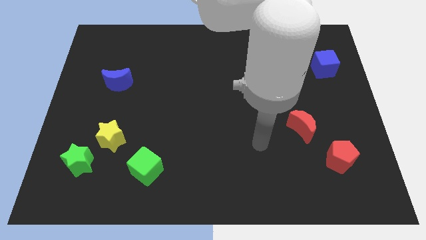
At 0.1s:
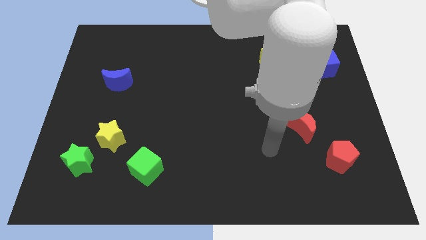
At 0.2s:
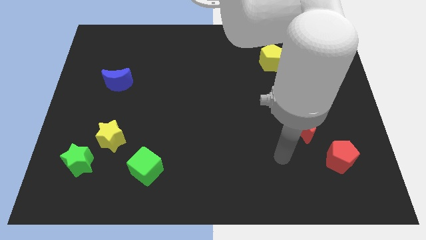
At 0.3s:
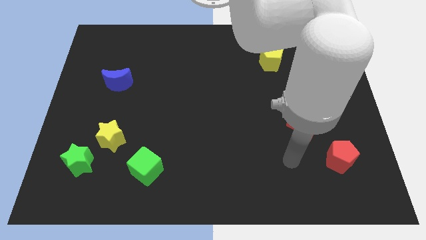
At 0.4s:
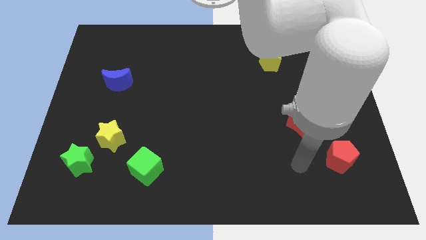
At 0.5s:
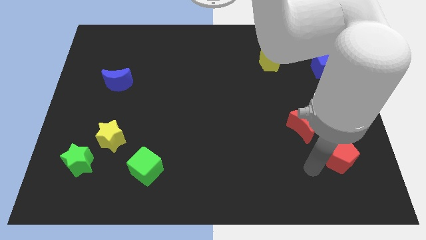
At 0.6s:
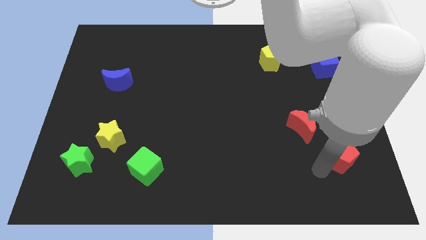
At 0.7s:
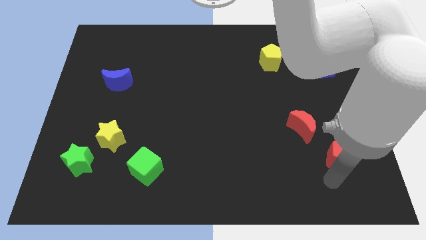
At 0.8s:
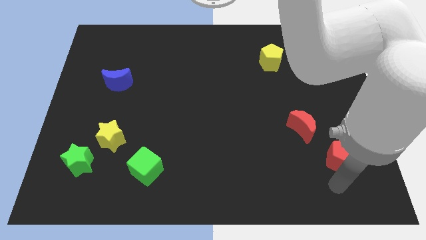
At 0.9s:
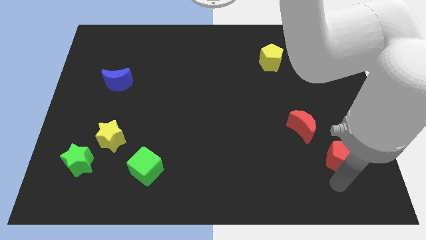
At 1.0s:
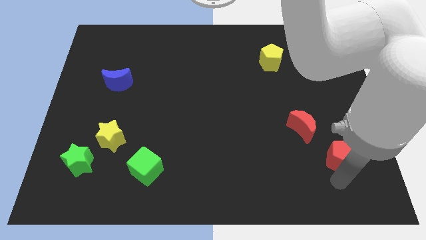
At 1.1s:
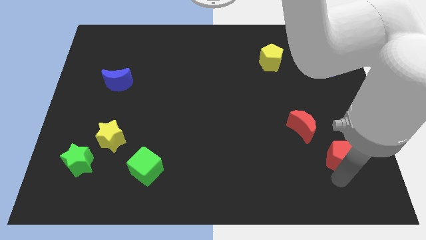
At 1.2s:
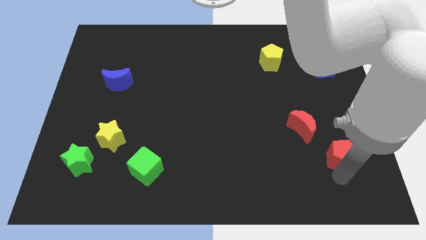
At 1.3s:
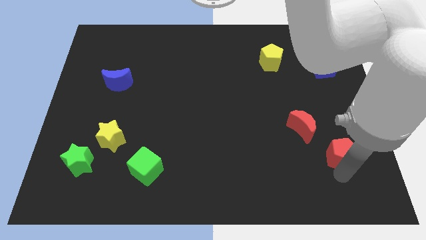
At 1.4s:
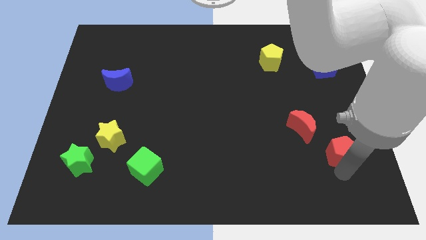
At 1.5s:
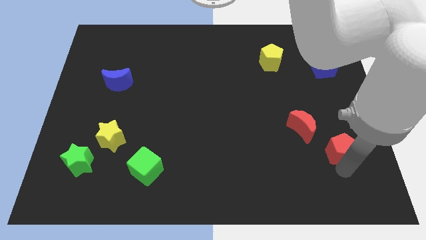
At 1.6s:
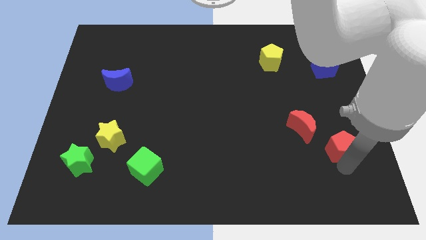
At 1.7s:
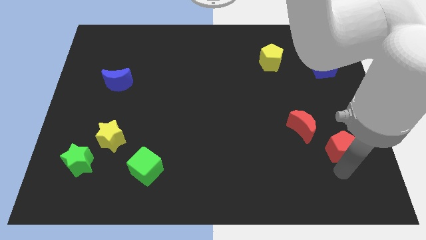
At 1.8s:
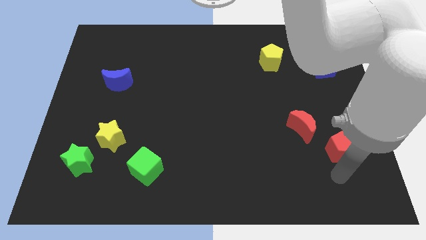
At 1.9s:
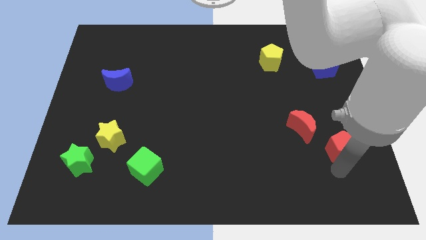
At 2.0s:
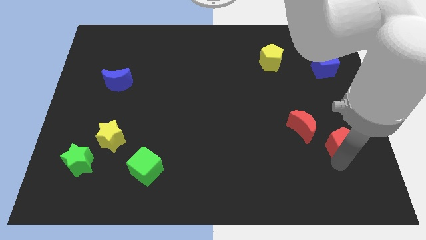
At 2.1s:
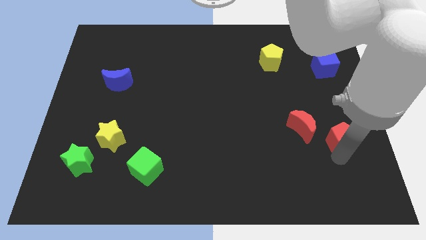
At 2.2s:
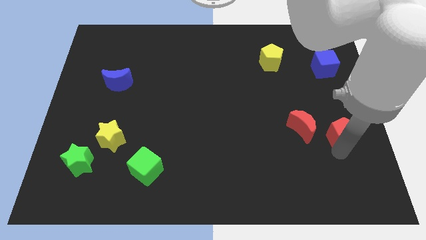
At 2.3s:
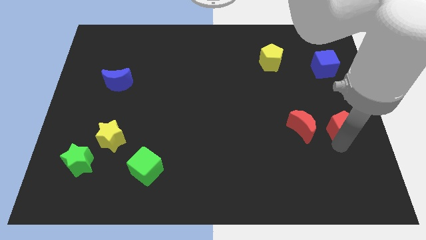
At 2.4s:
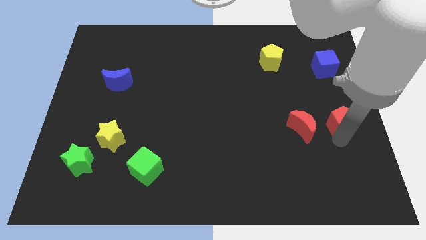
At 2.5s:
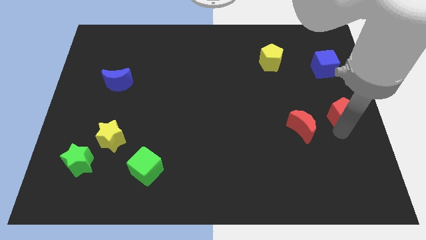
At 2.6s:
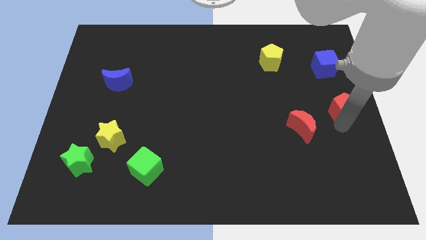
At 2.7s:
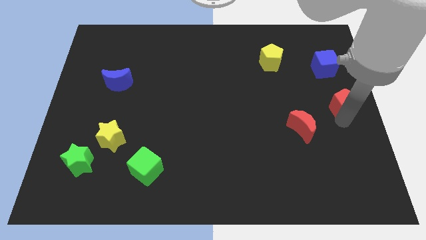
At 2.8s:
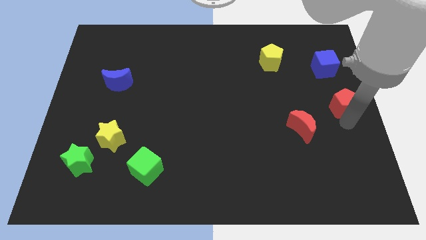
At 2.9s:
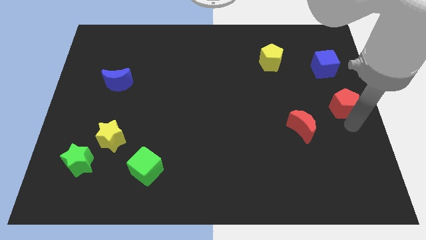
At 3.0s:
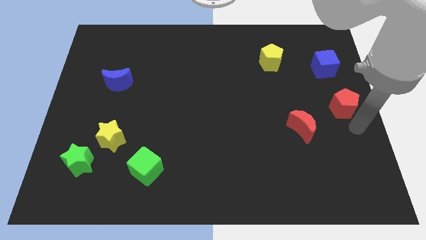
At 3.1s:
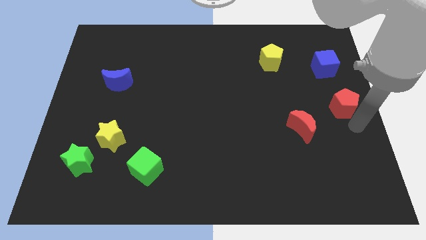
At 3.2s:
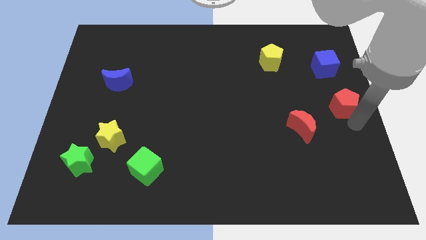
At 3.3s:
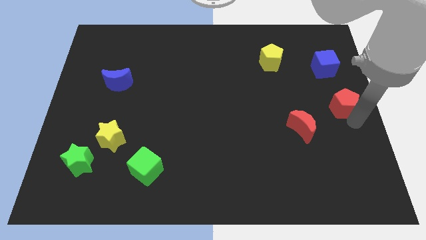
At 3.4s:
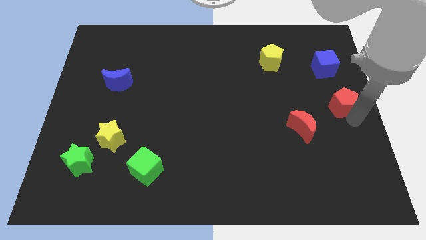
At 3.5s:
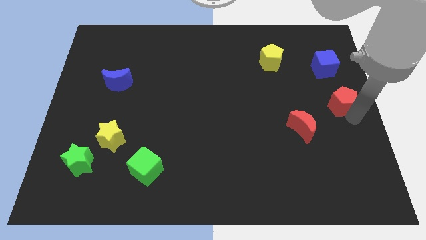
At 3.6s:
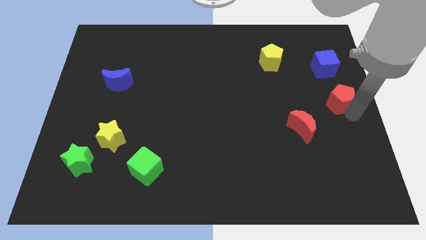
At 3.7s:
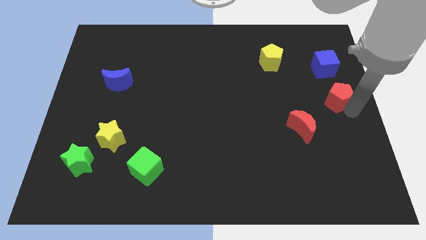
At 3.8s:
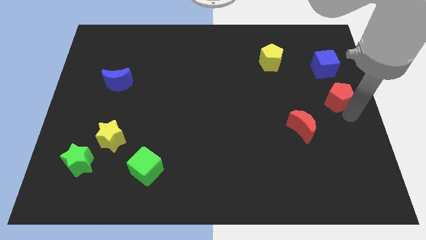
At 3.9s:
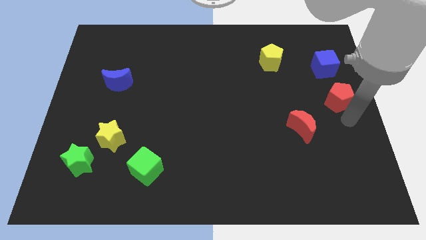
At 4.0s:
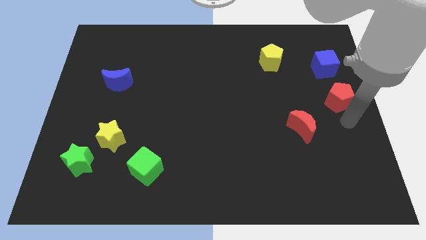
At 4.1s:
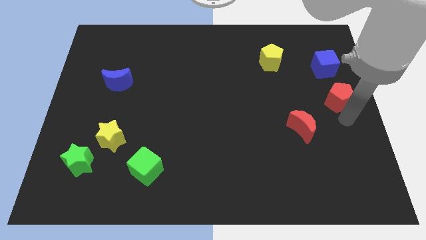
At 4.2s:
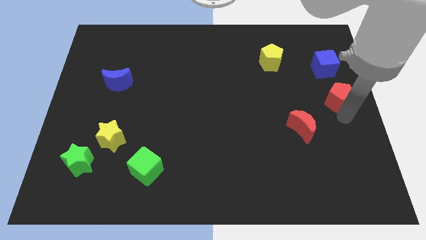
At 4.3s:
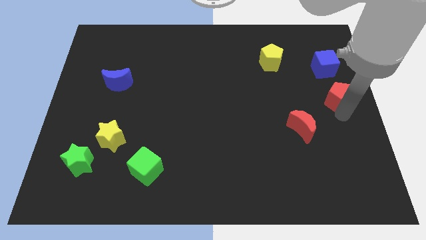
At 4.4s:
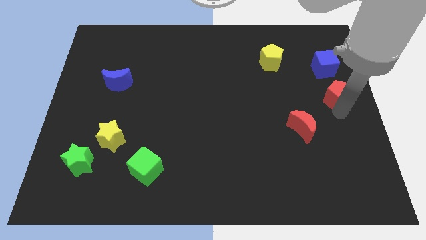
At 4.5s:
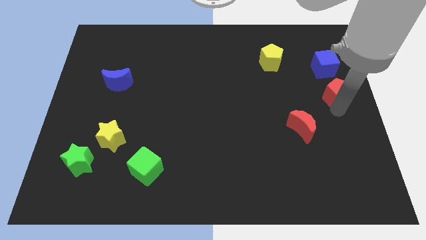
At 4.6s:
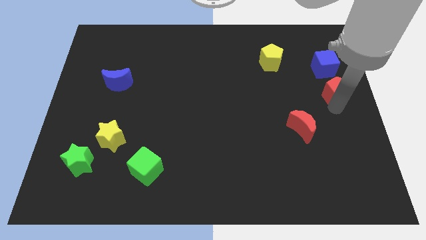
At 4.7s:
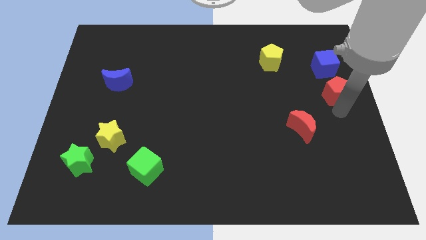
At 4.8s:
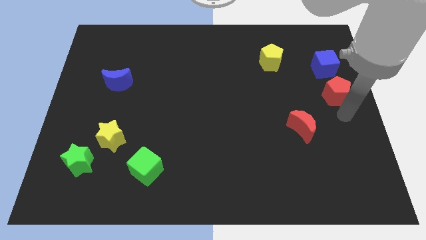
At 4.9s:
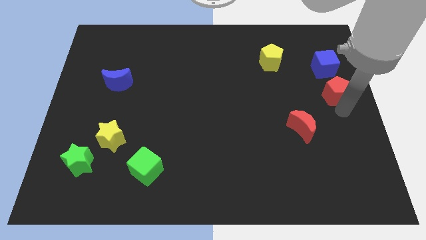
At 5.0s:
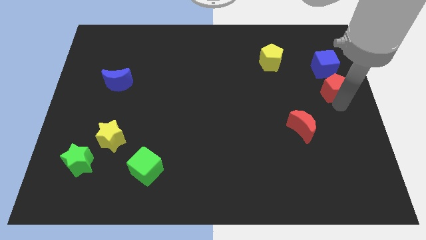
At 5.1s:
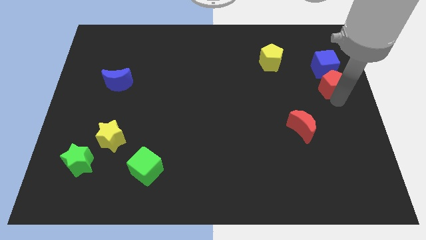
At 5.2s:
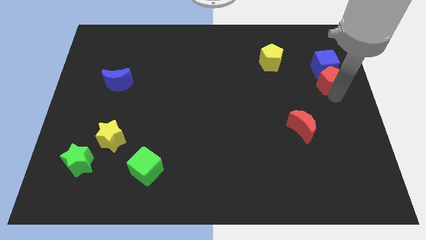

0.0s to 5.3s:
put the red pentagon close to the blue cube

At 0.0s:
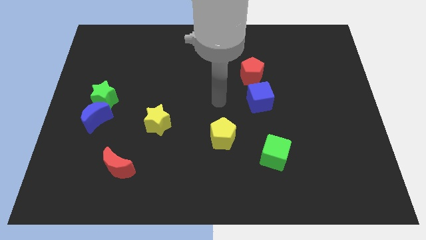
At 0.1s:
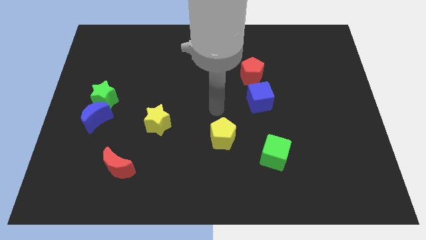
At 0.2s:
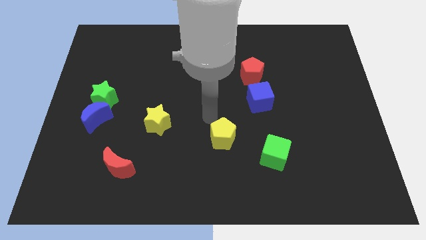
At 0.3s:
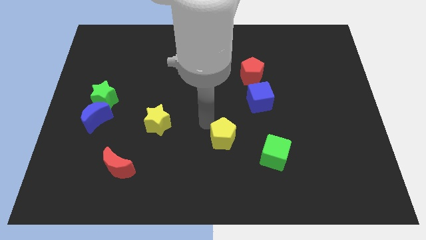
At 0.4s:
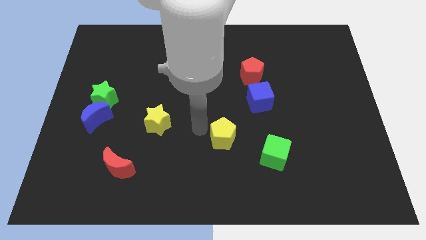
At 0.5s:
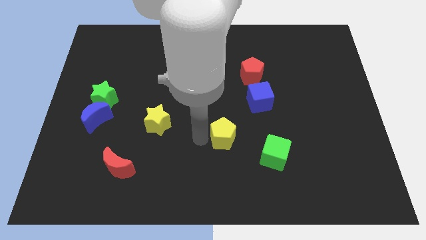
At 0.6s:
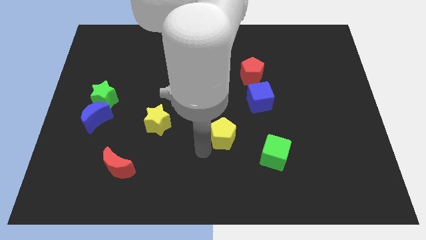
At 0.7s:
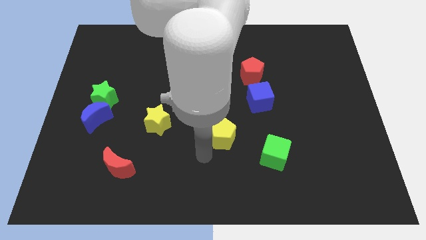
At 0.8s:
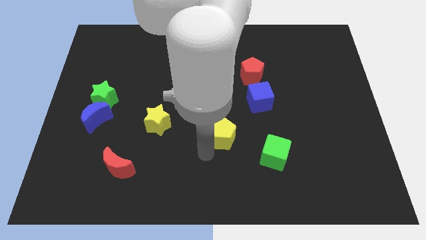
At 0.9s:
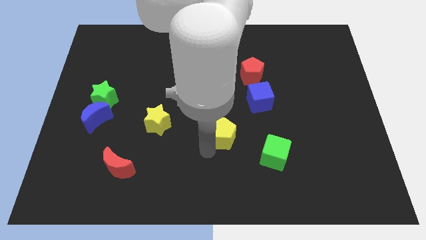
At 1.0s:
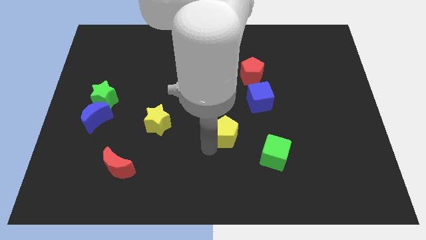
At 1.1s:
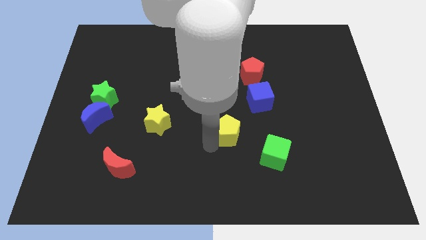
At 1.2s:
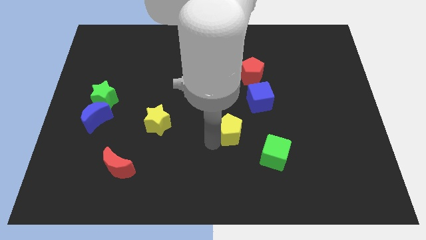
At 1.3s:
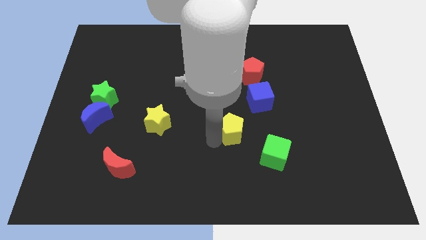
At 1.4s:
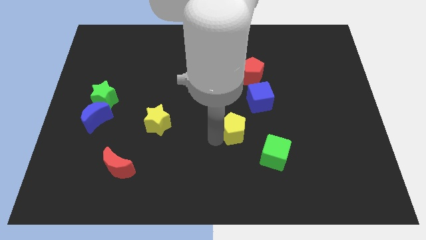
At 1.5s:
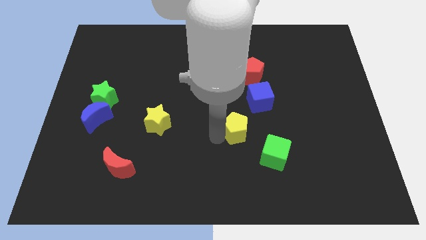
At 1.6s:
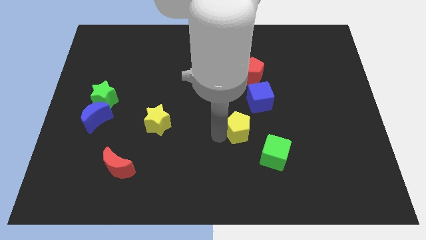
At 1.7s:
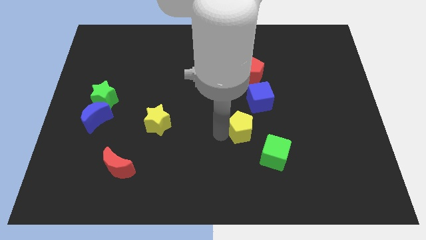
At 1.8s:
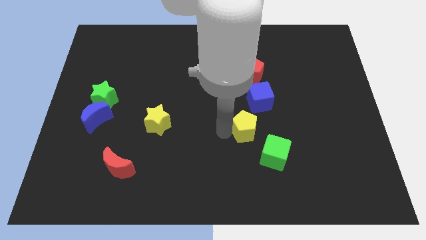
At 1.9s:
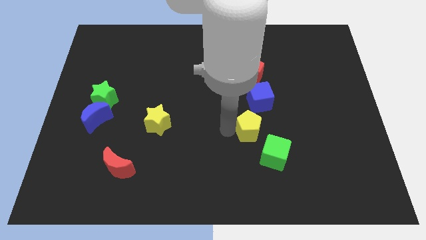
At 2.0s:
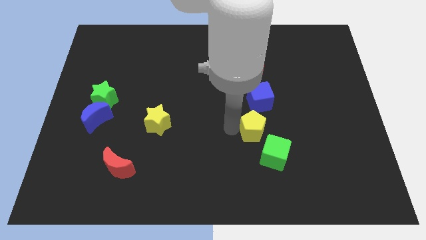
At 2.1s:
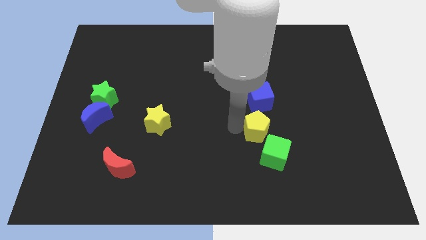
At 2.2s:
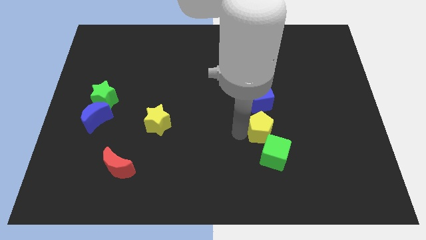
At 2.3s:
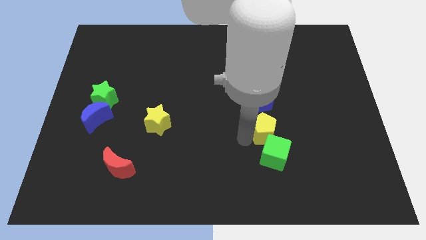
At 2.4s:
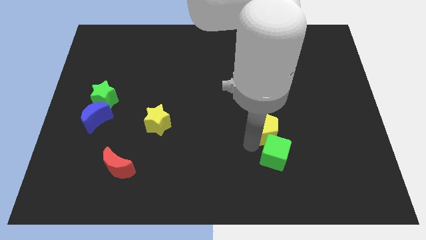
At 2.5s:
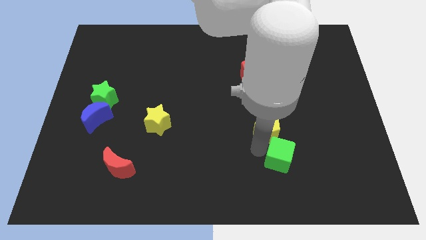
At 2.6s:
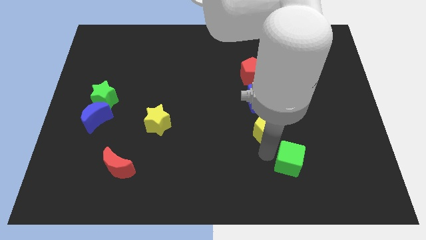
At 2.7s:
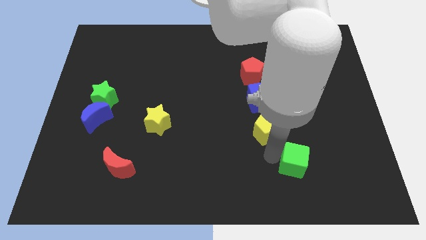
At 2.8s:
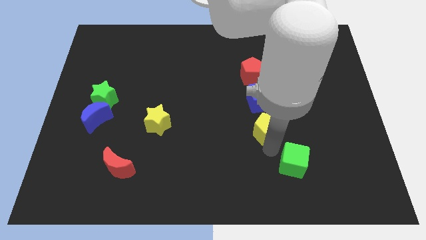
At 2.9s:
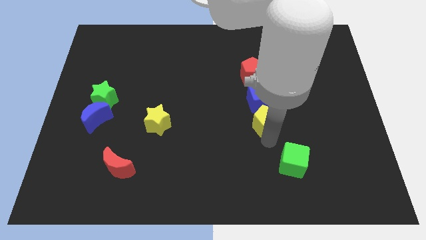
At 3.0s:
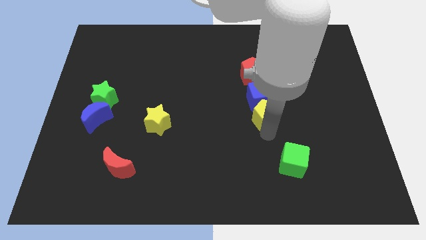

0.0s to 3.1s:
slide the yellow pentagon to the blue cube
